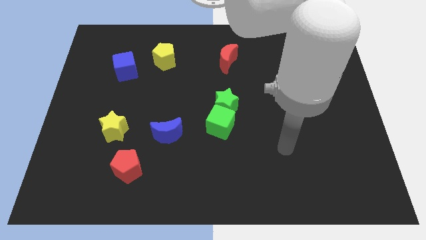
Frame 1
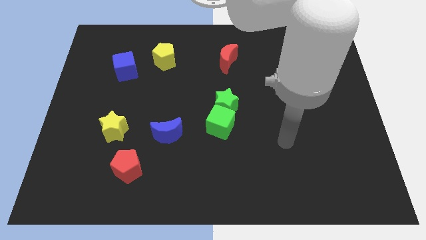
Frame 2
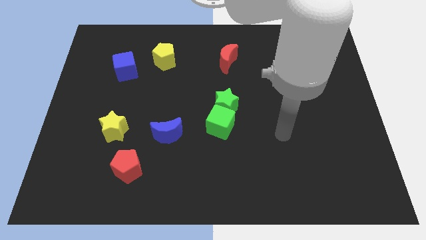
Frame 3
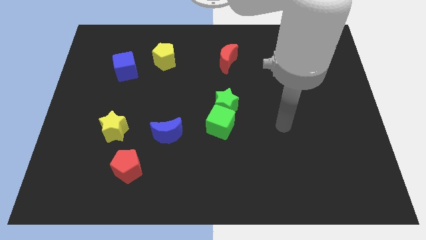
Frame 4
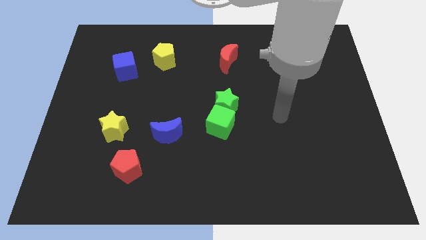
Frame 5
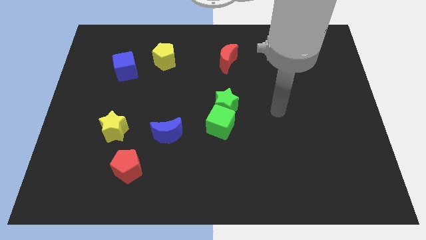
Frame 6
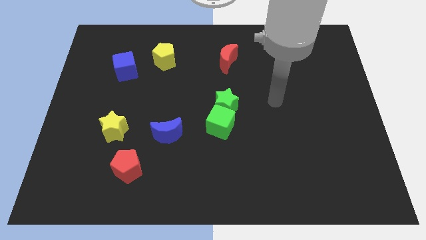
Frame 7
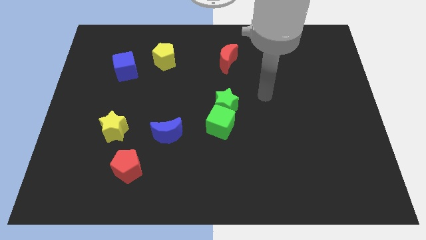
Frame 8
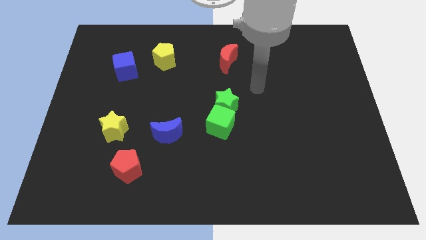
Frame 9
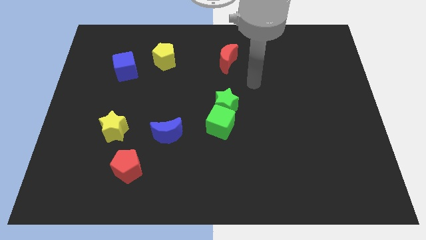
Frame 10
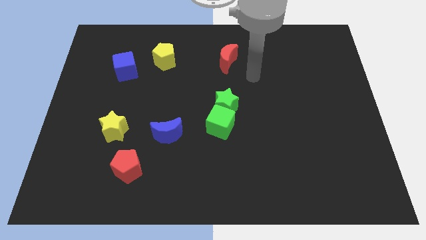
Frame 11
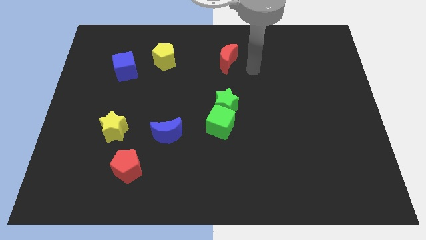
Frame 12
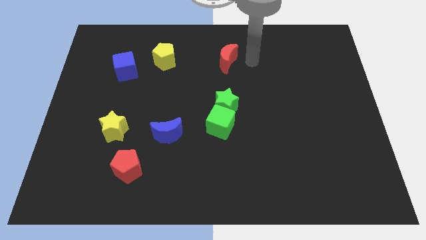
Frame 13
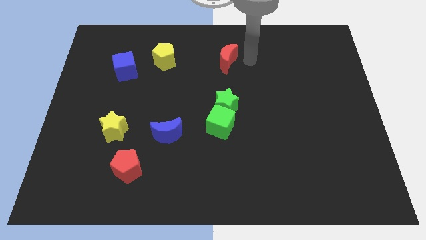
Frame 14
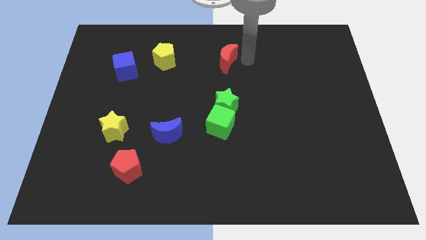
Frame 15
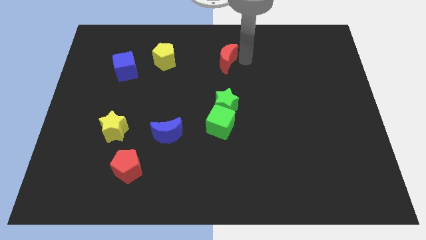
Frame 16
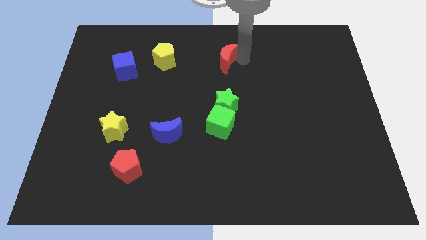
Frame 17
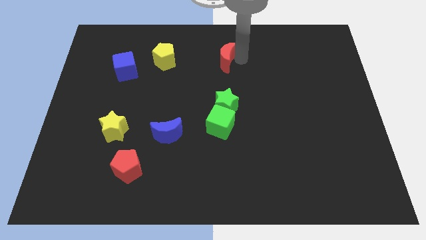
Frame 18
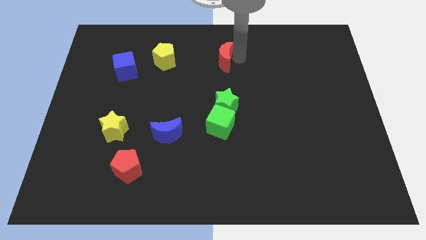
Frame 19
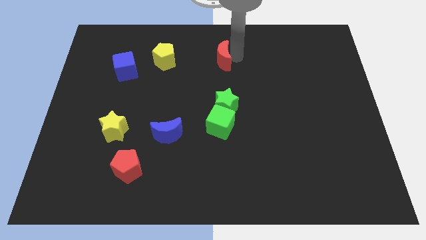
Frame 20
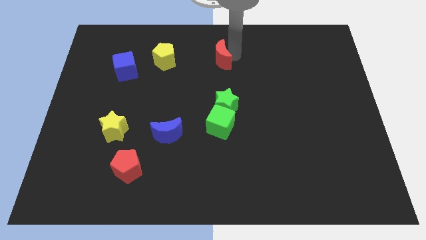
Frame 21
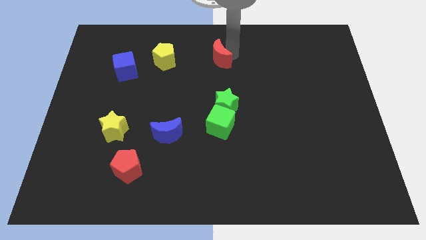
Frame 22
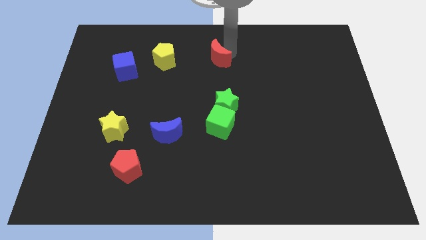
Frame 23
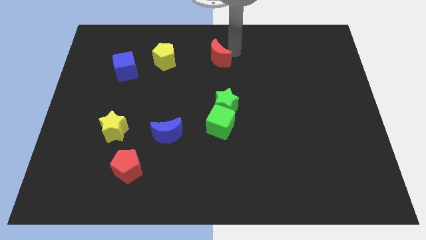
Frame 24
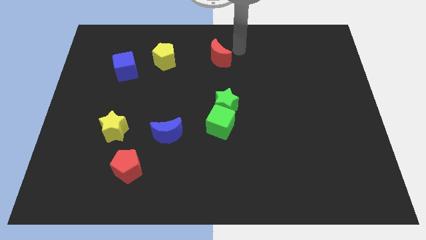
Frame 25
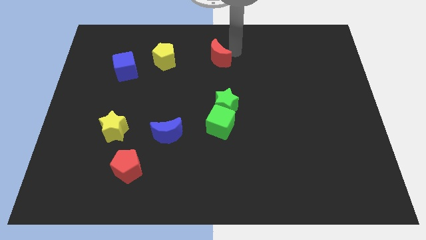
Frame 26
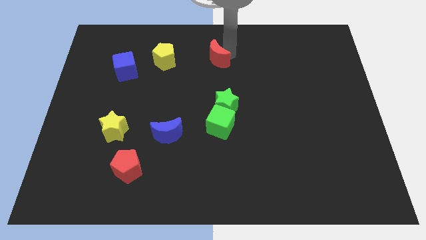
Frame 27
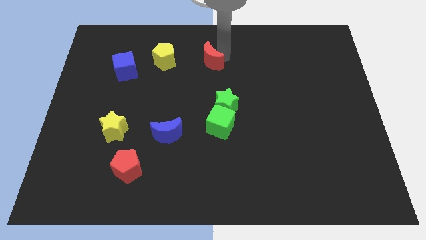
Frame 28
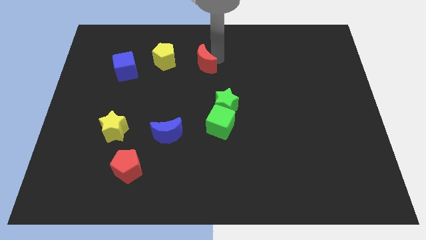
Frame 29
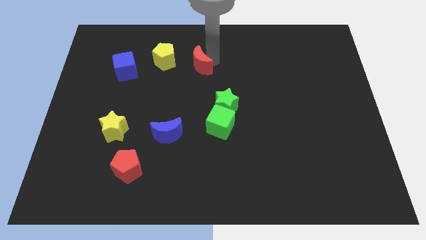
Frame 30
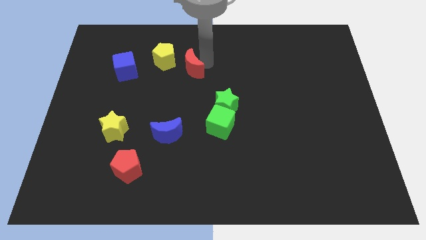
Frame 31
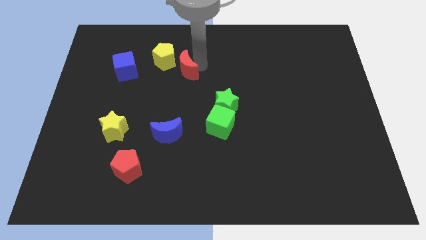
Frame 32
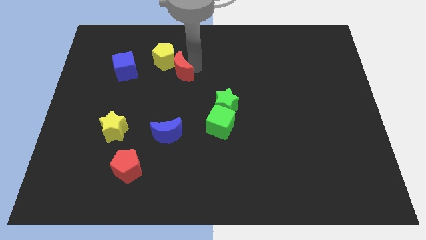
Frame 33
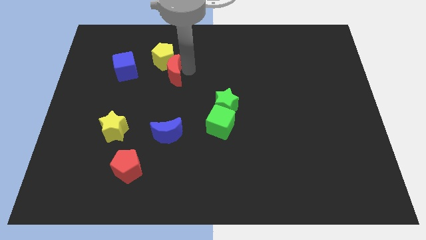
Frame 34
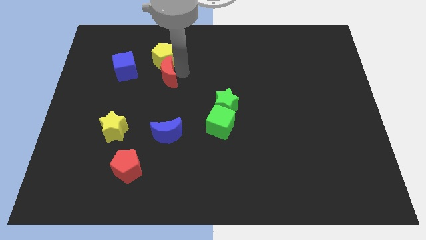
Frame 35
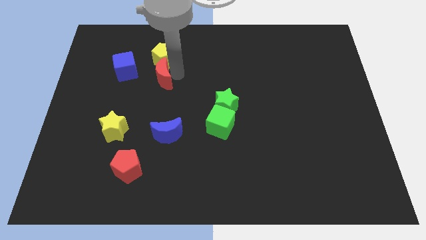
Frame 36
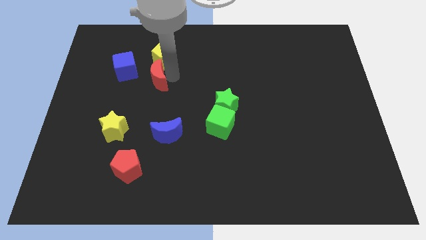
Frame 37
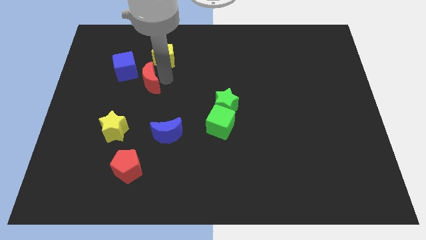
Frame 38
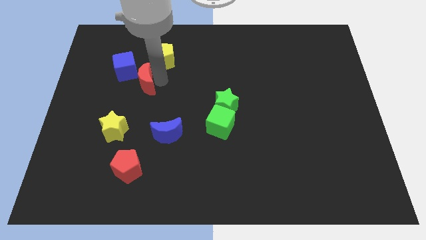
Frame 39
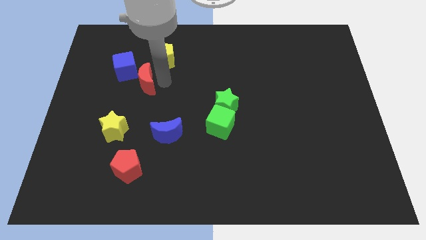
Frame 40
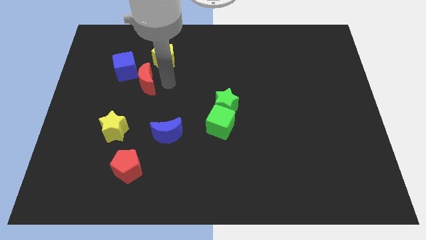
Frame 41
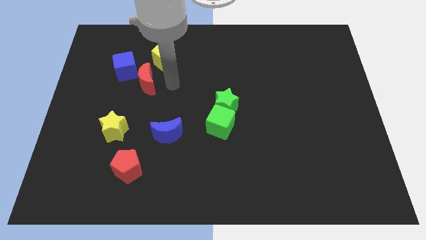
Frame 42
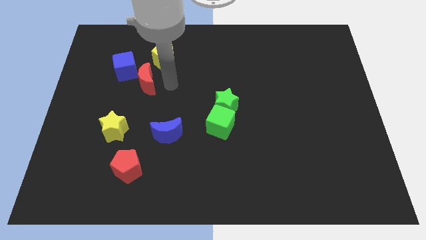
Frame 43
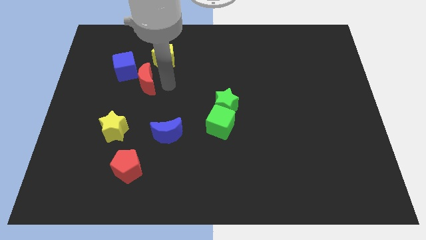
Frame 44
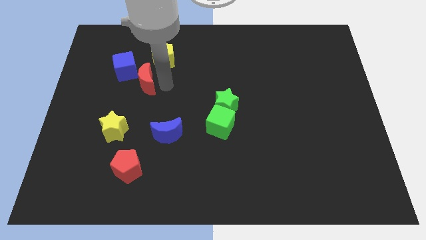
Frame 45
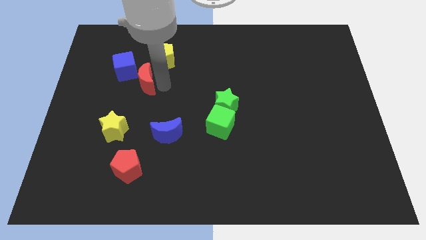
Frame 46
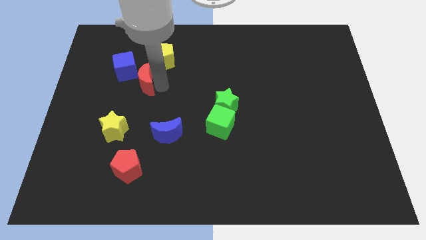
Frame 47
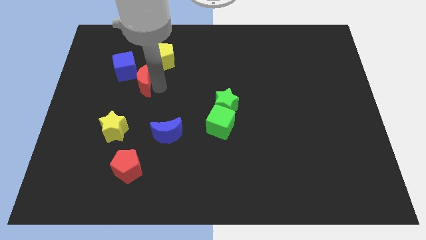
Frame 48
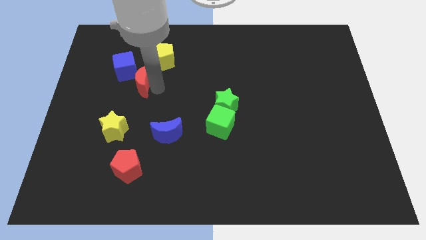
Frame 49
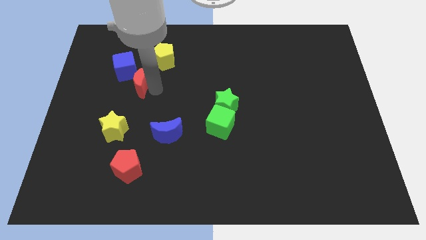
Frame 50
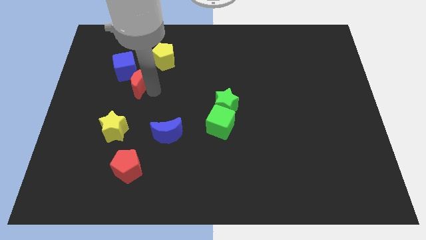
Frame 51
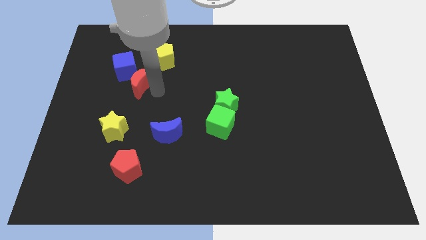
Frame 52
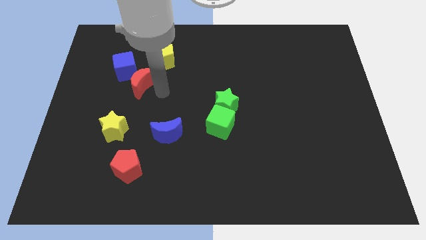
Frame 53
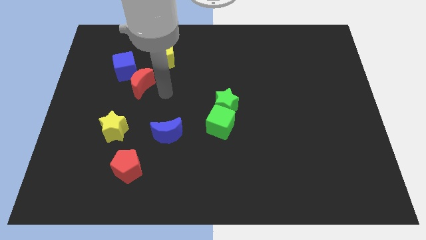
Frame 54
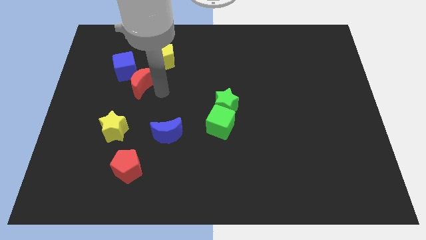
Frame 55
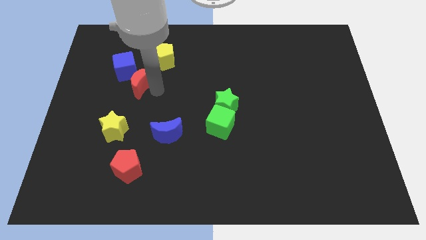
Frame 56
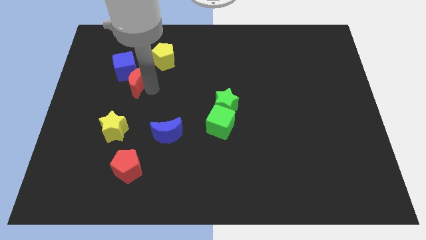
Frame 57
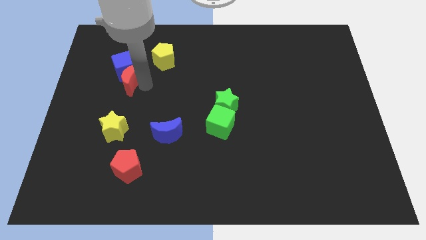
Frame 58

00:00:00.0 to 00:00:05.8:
move the red moon to the bottom left of the blue cube

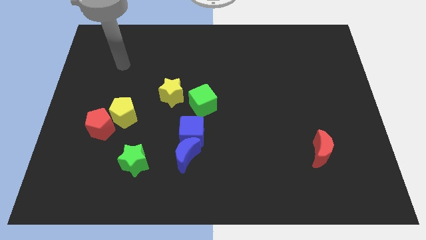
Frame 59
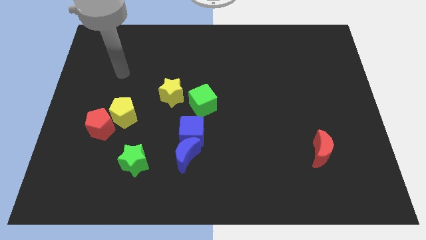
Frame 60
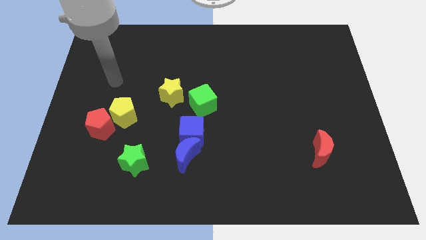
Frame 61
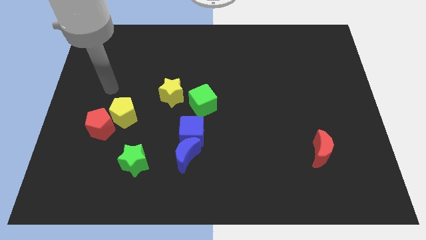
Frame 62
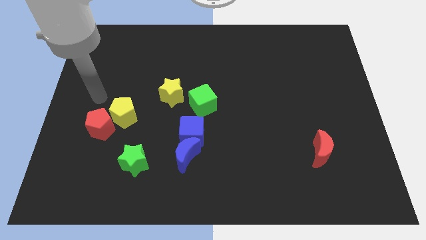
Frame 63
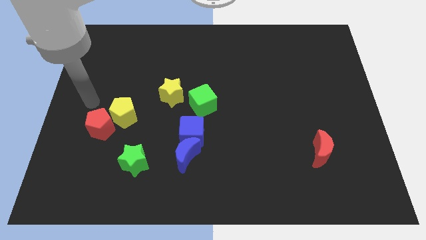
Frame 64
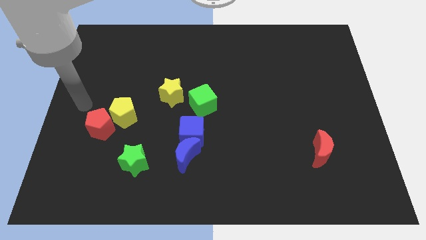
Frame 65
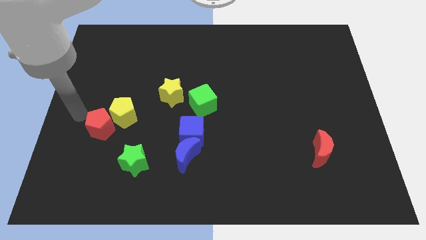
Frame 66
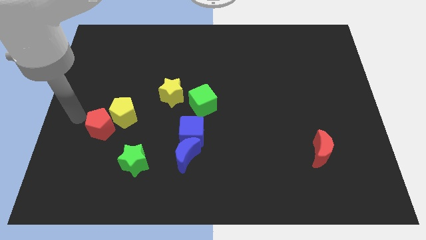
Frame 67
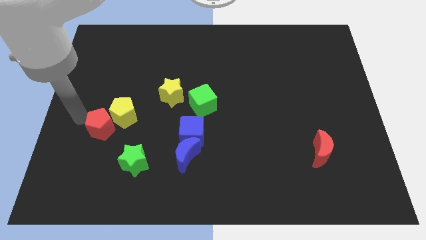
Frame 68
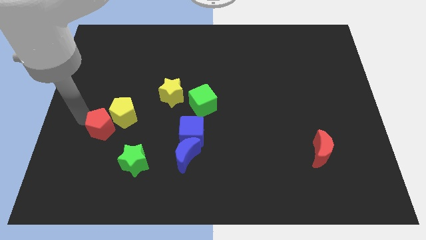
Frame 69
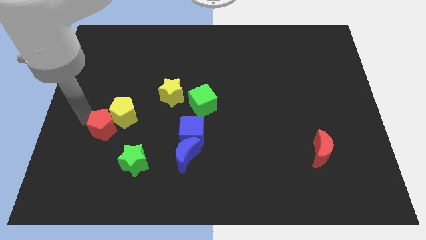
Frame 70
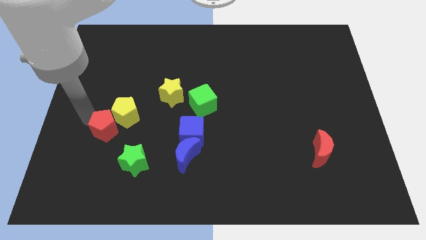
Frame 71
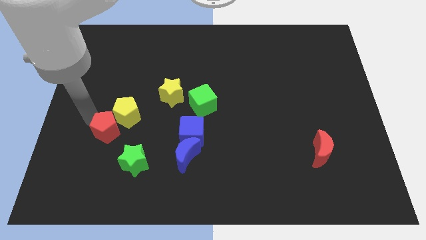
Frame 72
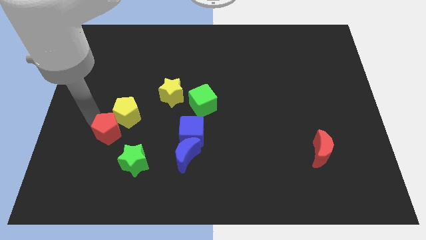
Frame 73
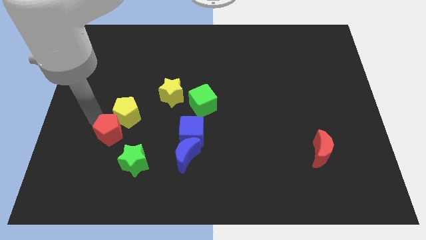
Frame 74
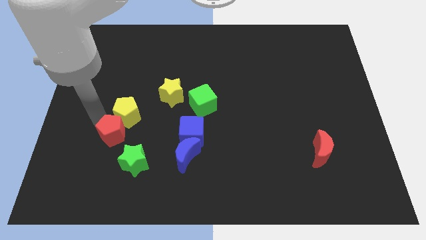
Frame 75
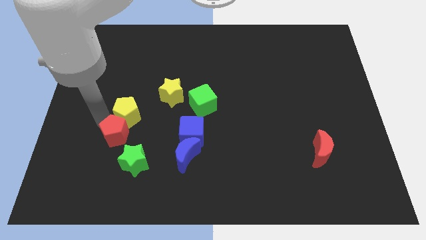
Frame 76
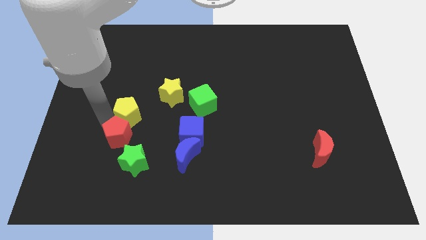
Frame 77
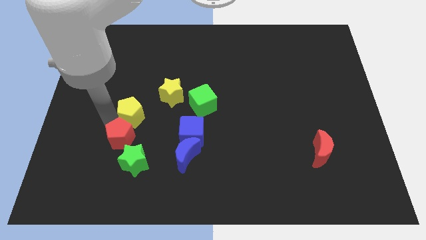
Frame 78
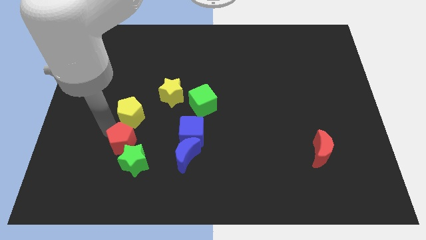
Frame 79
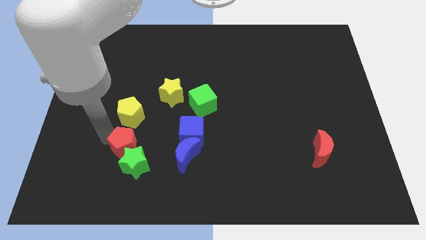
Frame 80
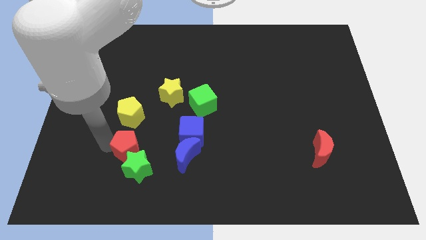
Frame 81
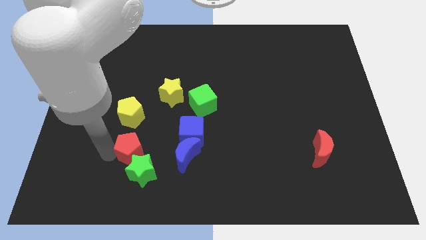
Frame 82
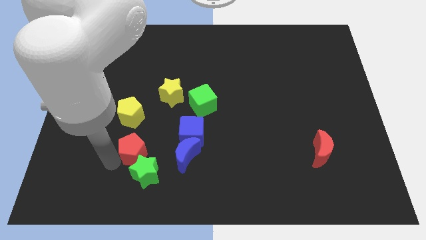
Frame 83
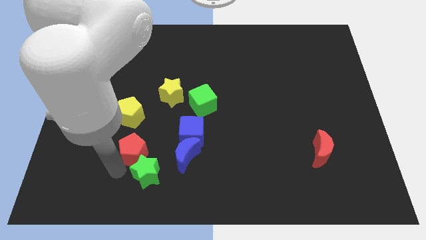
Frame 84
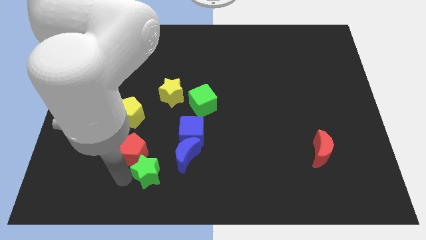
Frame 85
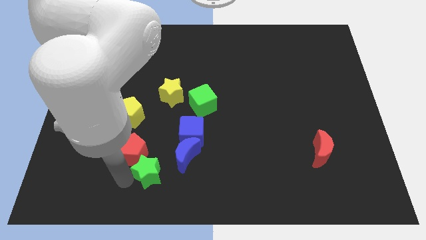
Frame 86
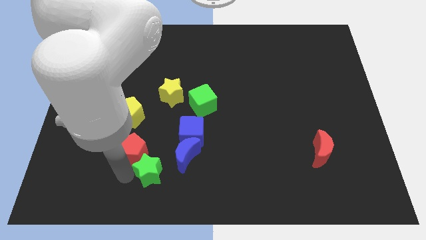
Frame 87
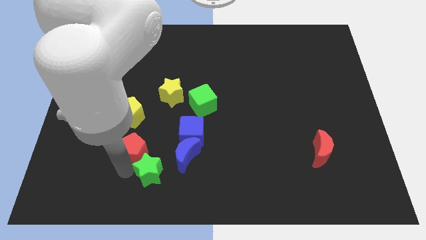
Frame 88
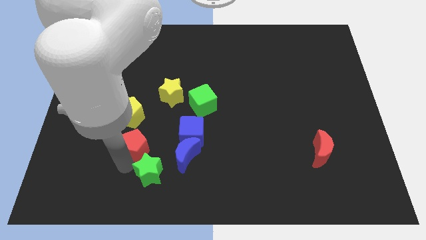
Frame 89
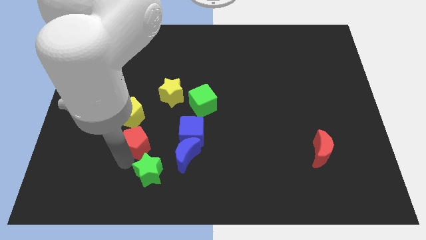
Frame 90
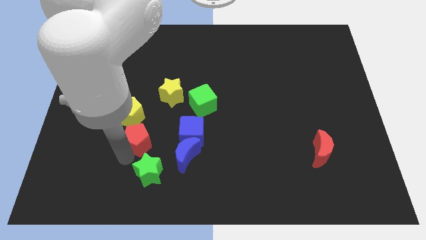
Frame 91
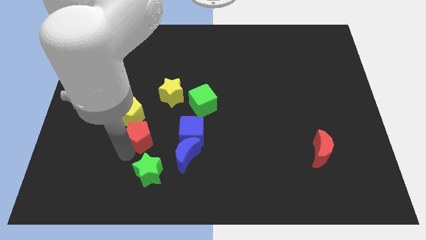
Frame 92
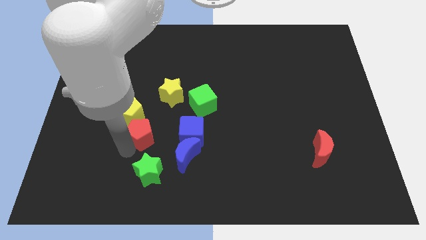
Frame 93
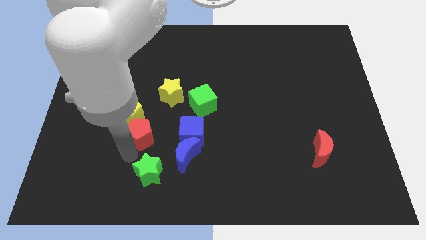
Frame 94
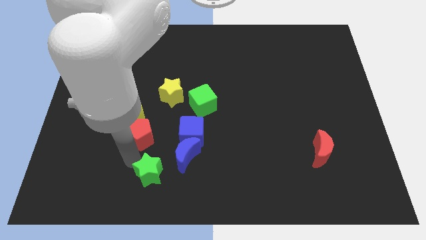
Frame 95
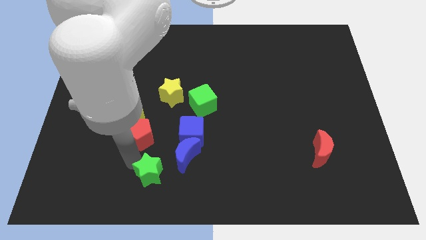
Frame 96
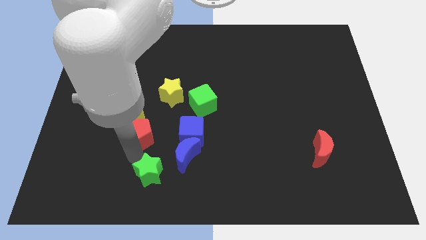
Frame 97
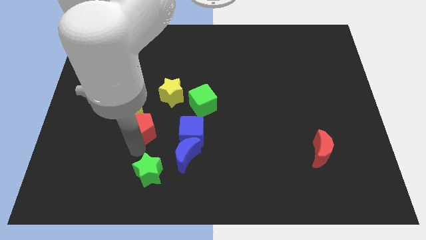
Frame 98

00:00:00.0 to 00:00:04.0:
slide the red pentagon diagonally down and to the left of the yellow star
